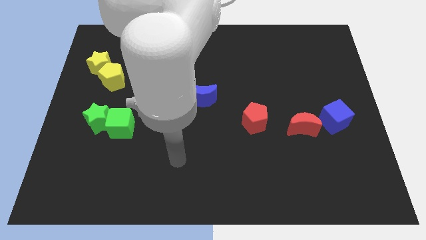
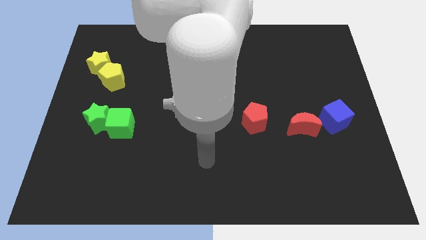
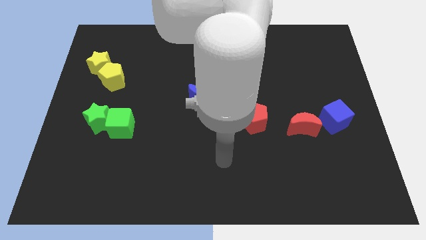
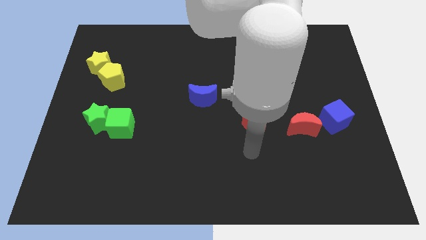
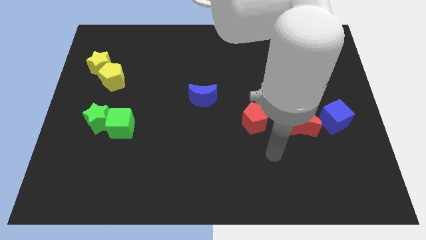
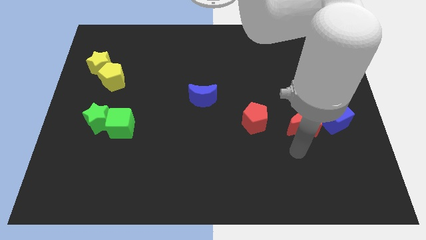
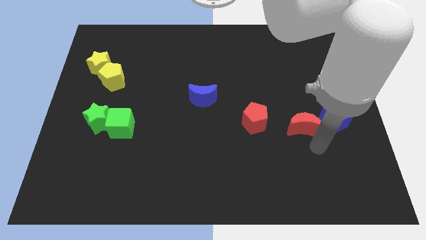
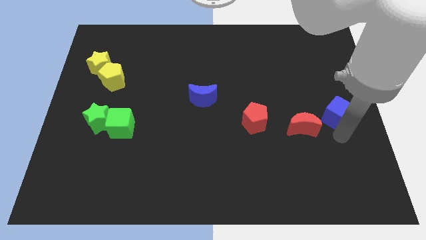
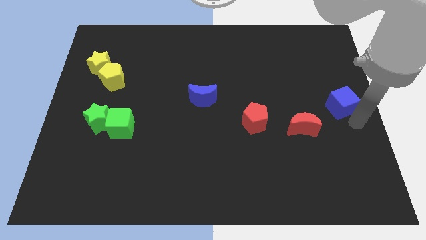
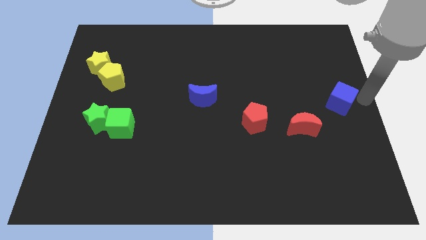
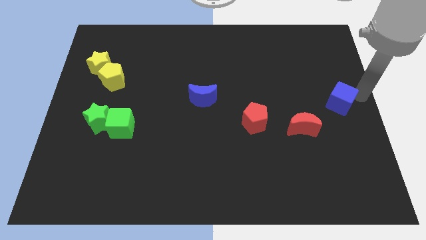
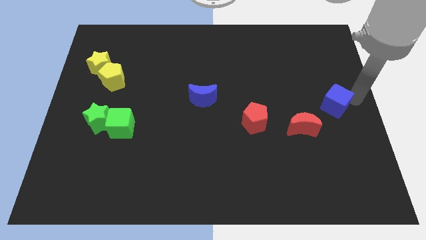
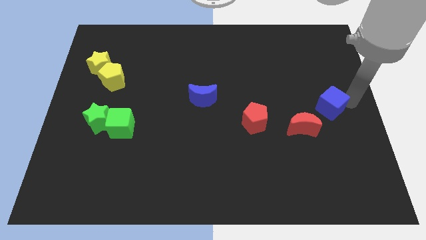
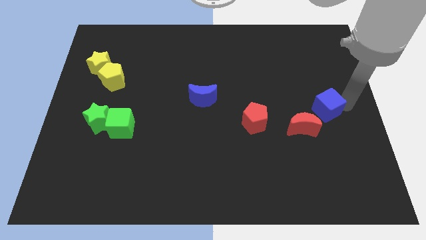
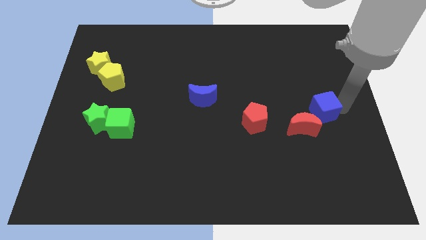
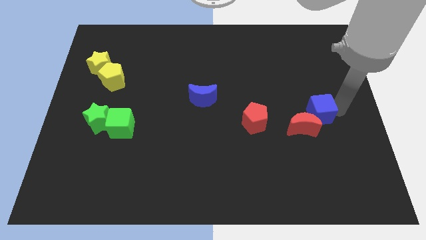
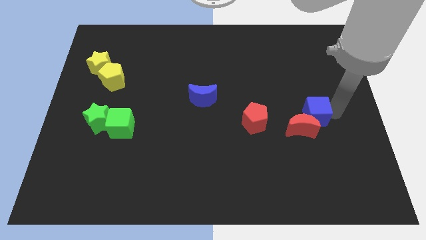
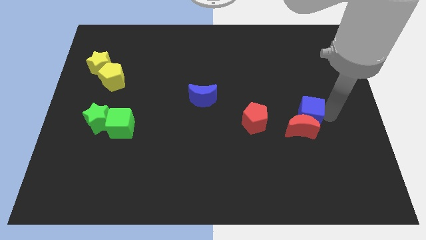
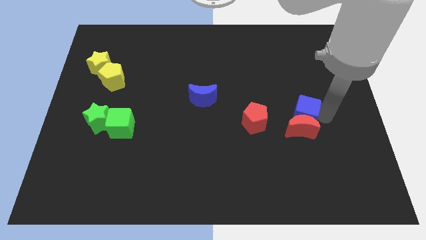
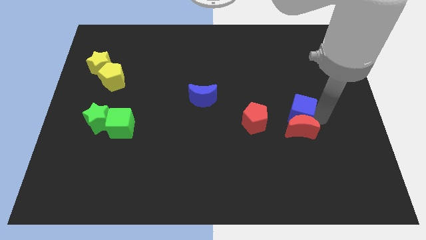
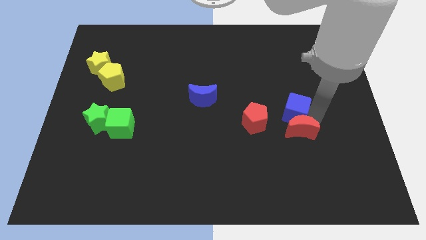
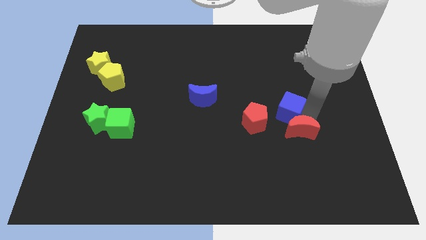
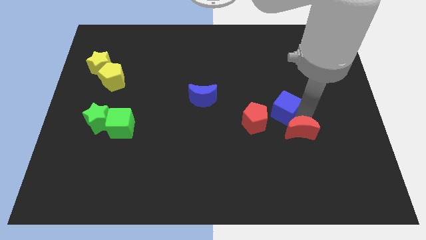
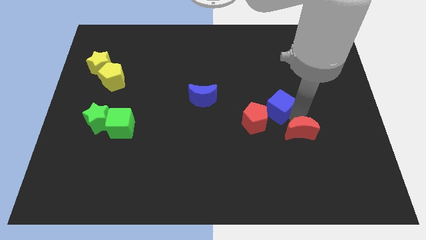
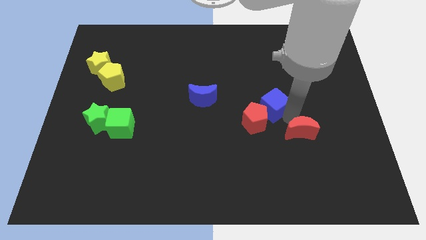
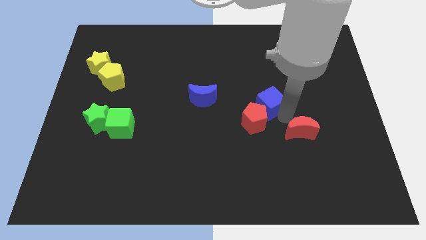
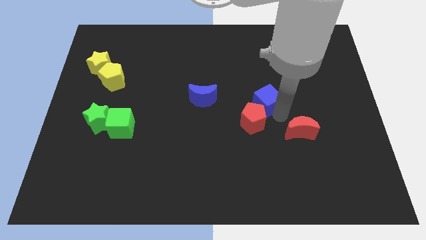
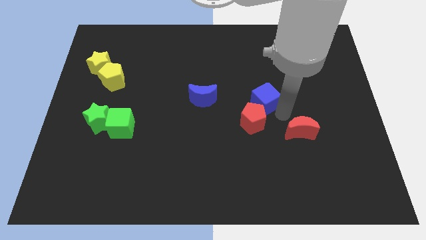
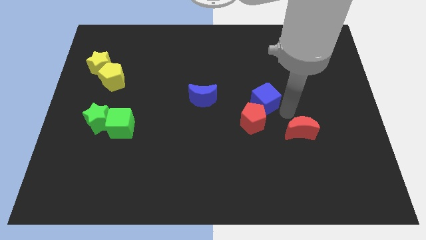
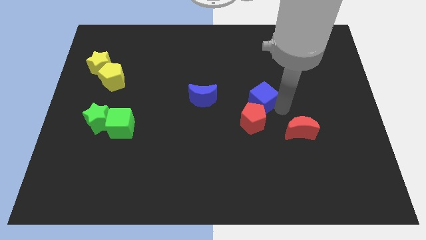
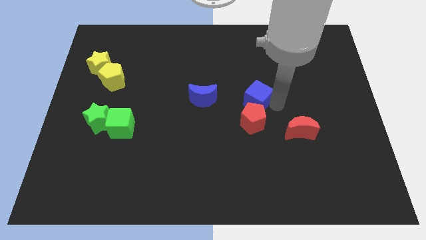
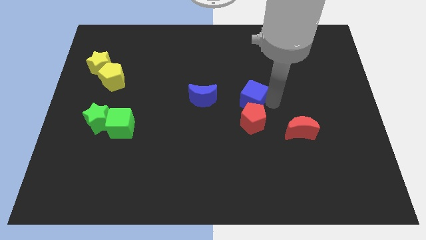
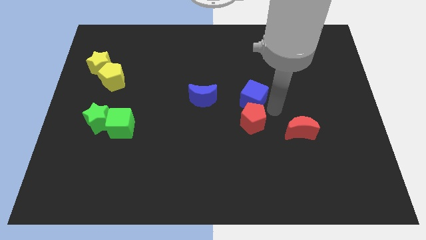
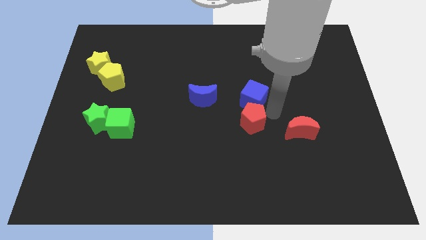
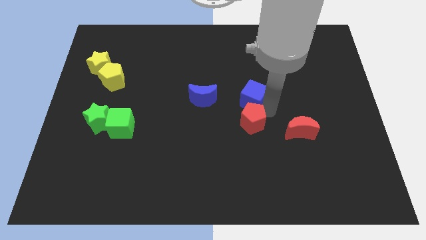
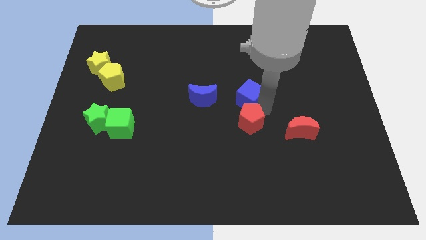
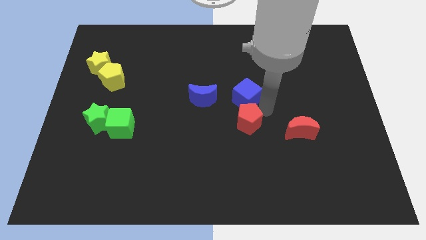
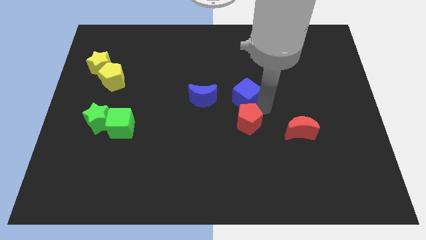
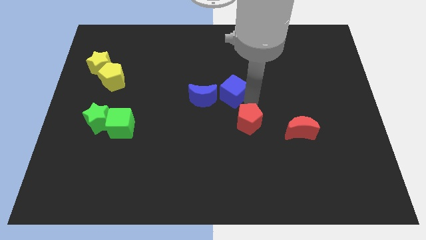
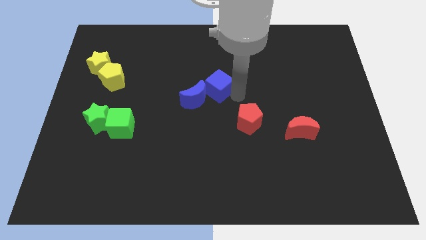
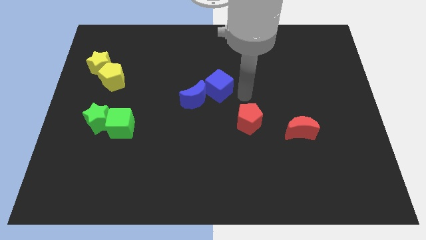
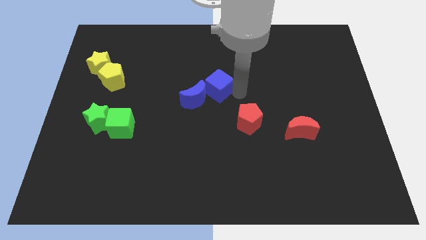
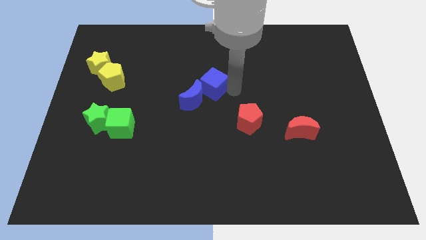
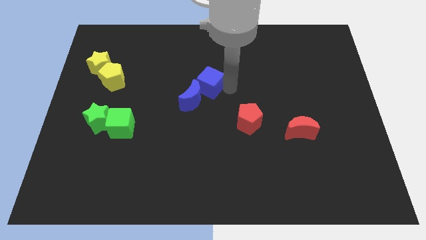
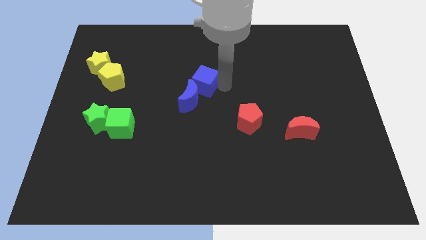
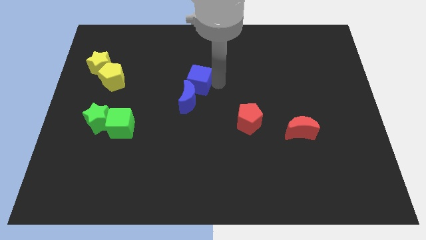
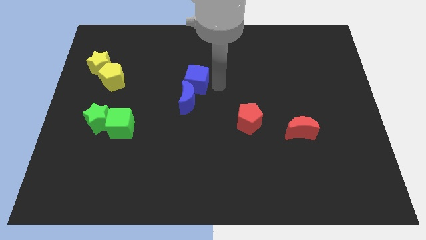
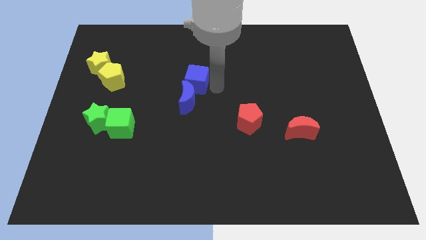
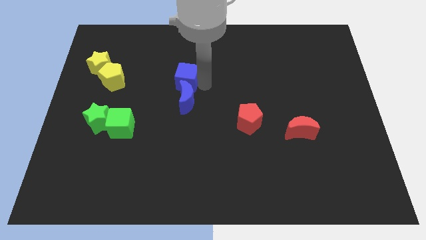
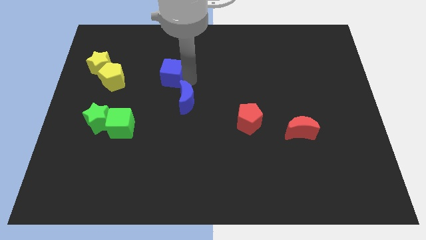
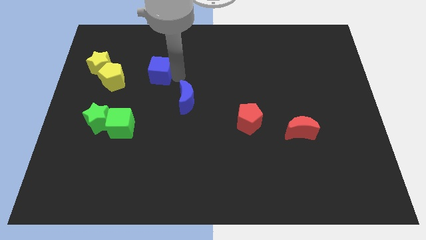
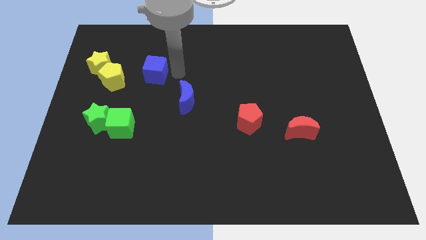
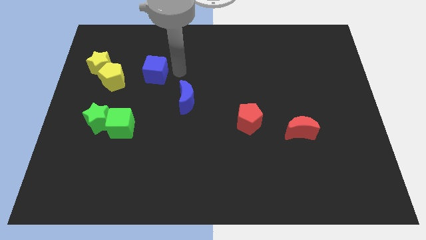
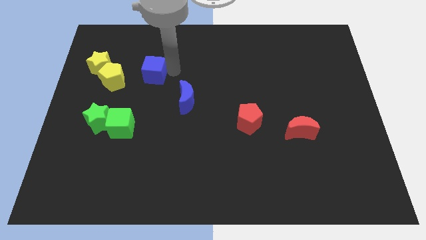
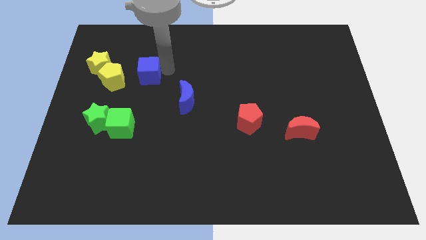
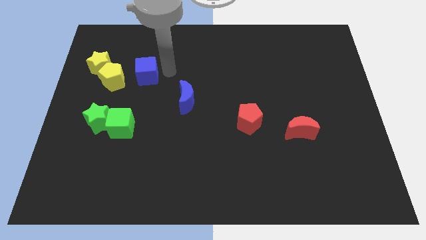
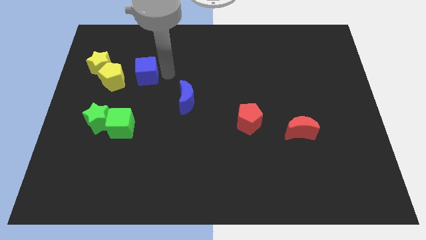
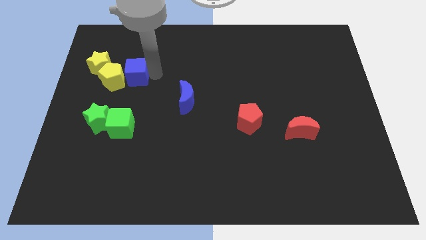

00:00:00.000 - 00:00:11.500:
put the blue cube close to the yellow pentagon

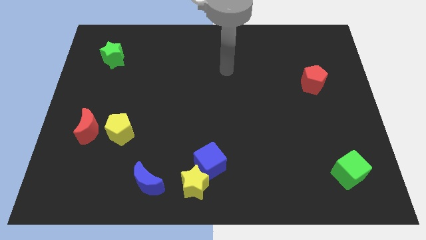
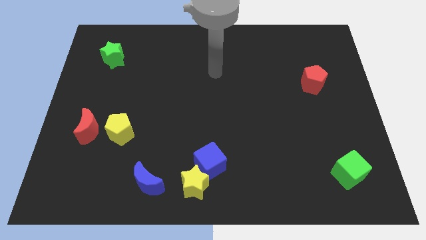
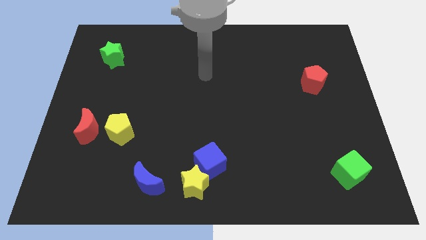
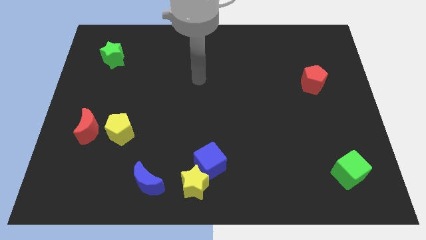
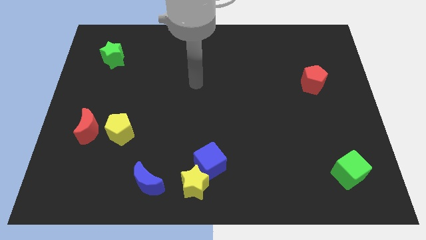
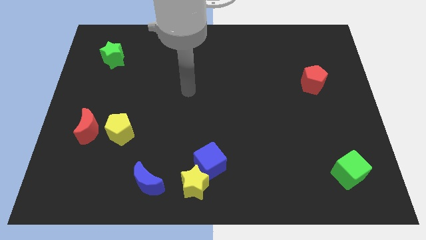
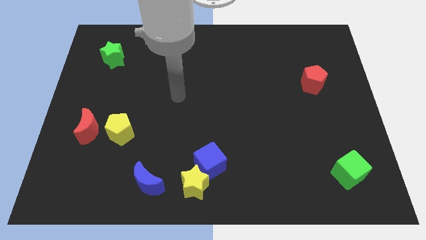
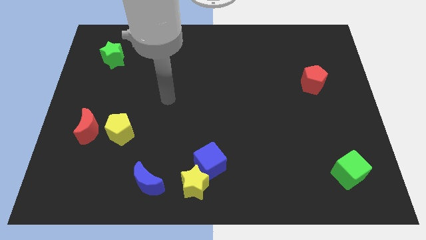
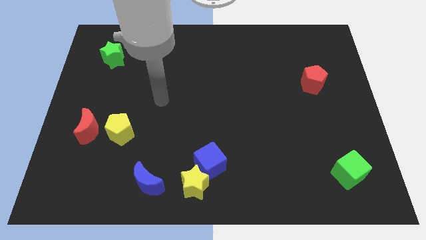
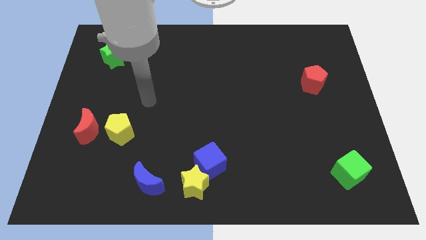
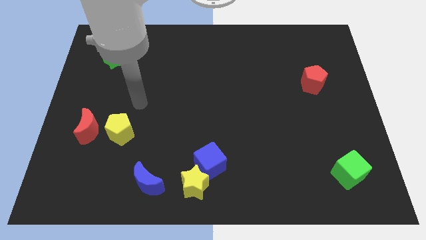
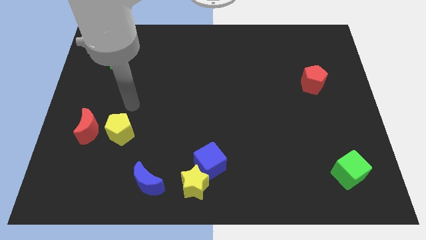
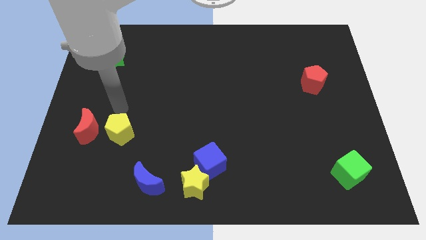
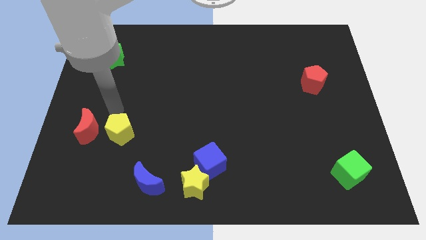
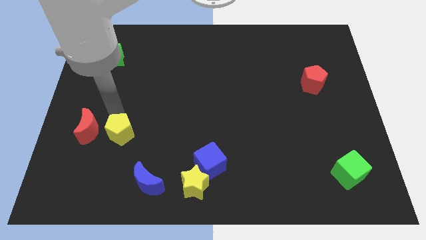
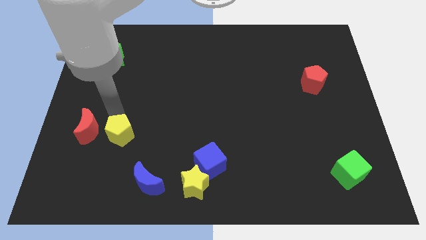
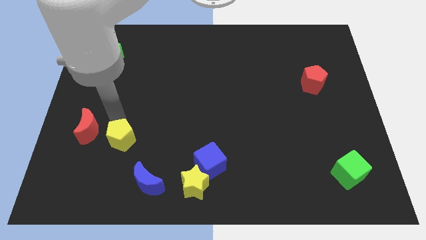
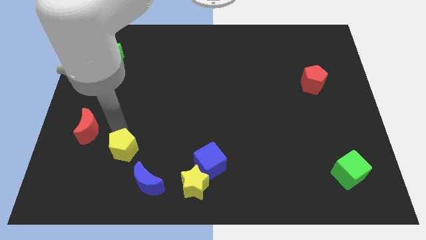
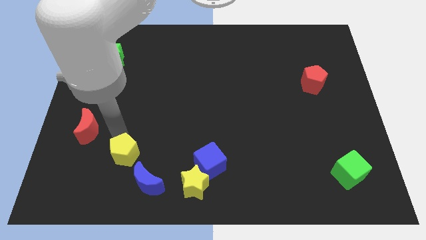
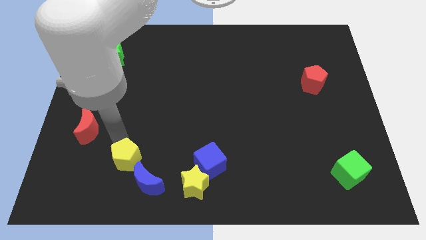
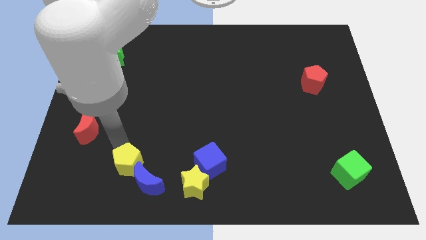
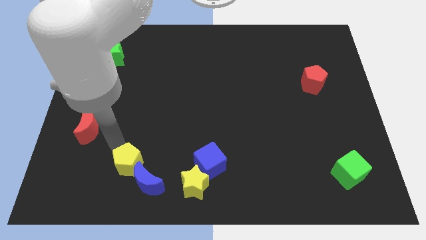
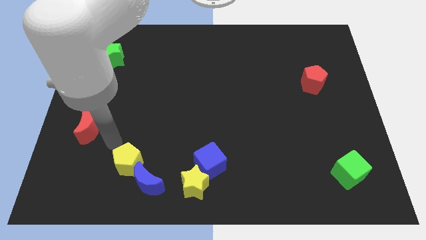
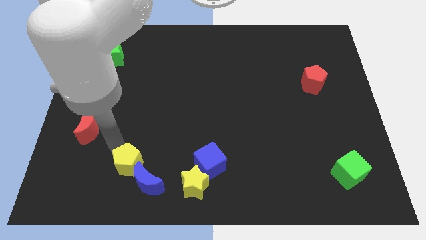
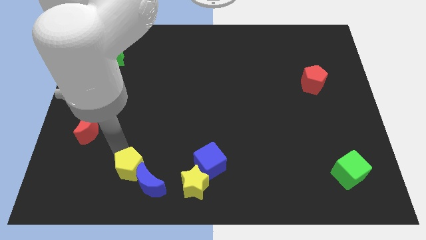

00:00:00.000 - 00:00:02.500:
slide the yellow pentagon to the blue moon
